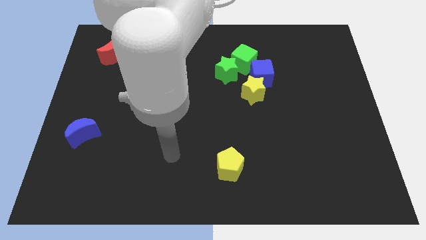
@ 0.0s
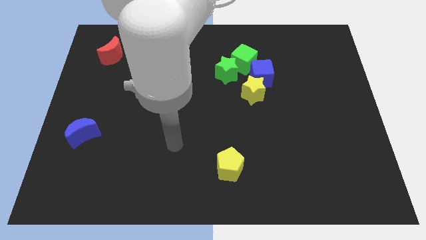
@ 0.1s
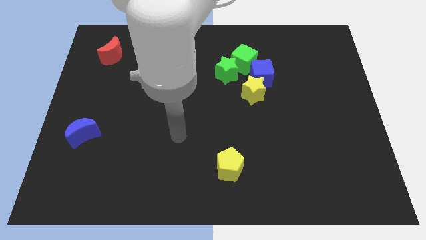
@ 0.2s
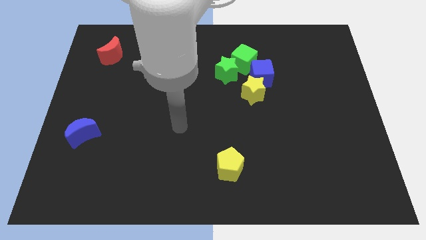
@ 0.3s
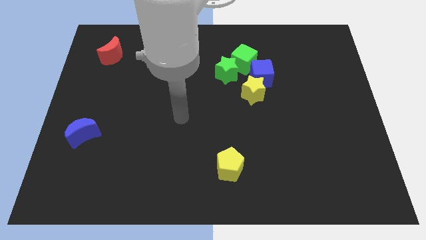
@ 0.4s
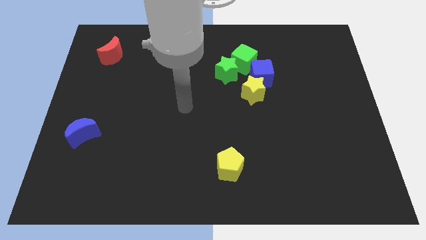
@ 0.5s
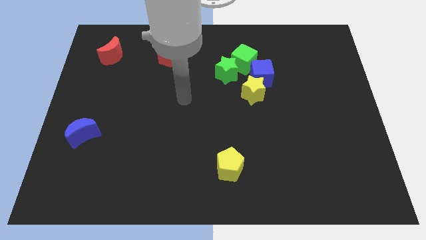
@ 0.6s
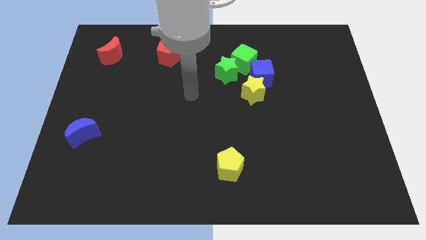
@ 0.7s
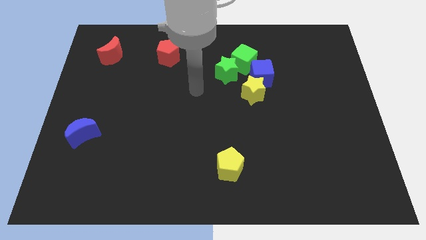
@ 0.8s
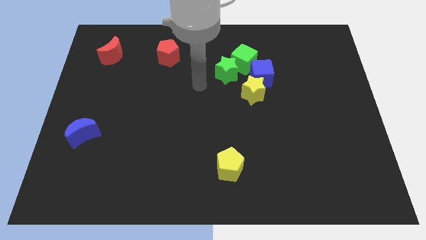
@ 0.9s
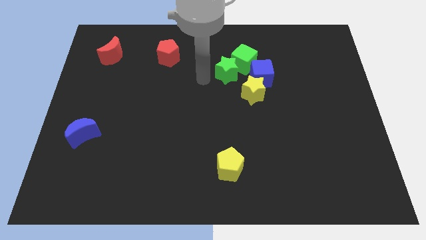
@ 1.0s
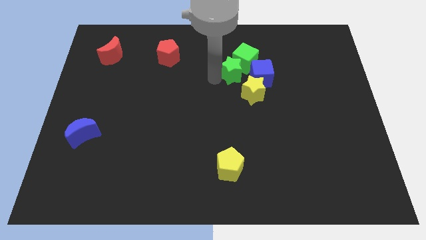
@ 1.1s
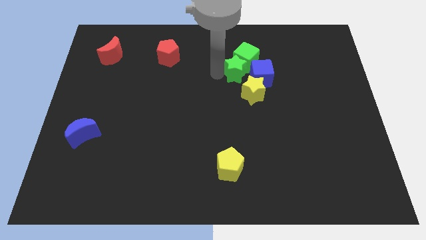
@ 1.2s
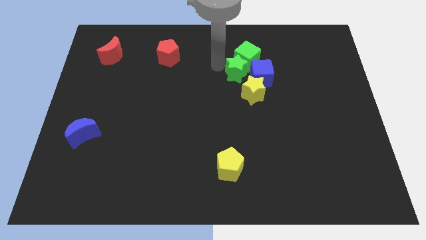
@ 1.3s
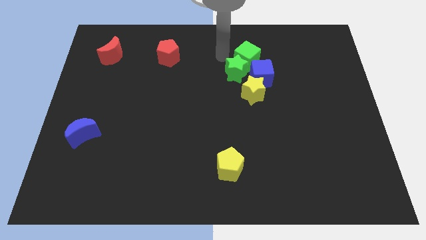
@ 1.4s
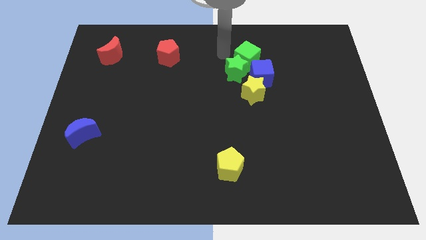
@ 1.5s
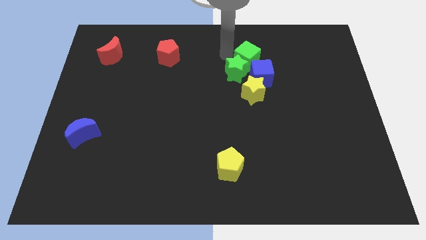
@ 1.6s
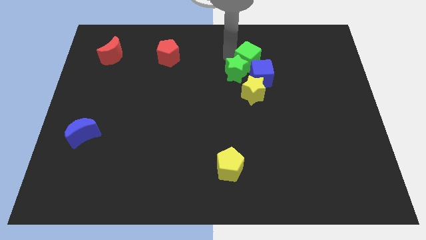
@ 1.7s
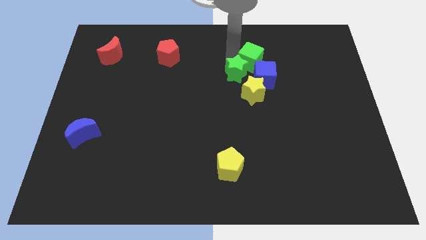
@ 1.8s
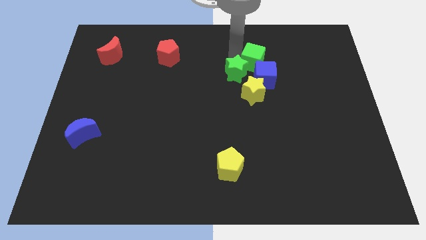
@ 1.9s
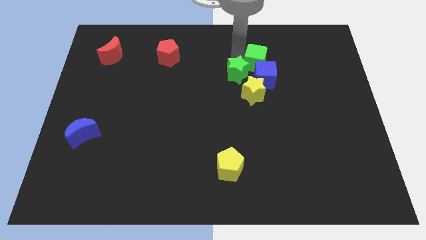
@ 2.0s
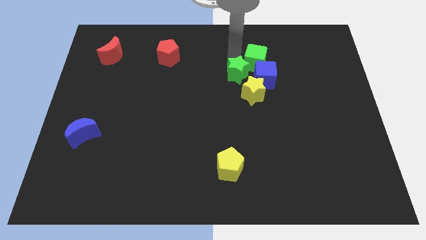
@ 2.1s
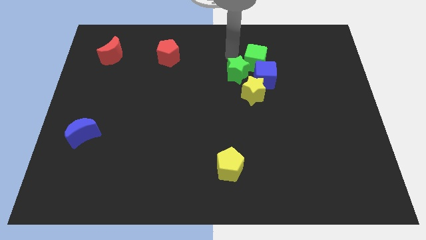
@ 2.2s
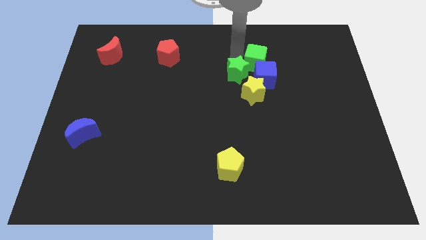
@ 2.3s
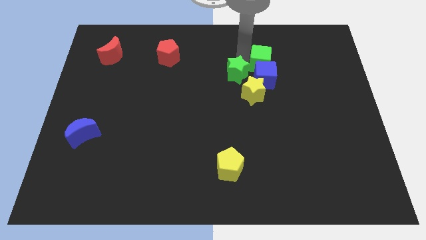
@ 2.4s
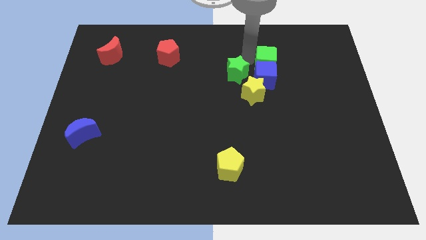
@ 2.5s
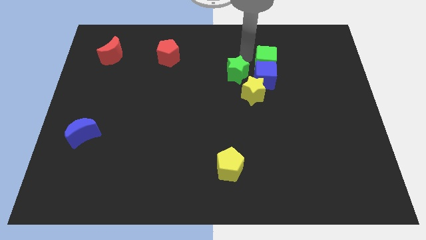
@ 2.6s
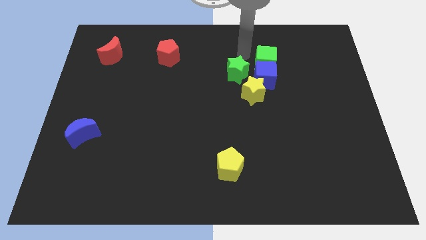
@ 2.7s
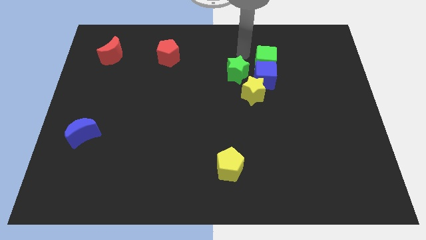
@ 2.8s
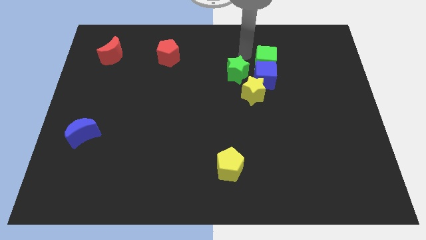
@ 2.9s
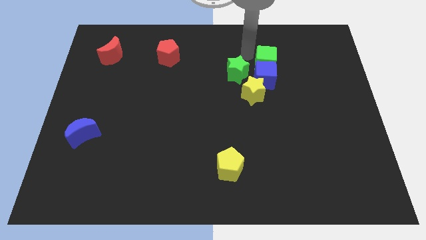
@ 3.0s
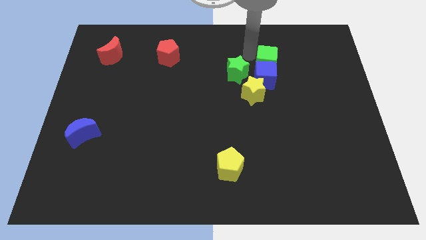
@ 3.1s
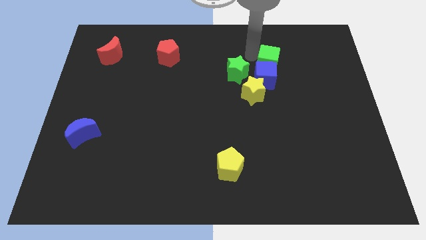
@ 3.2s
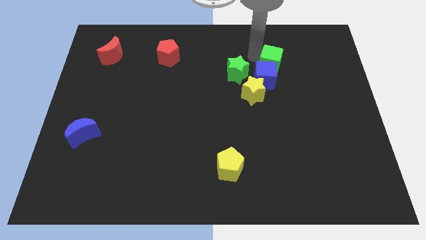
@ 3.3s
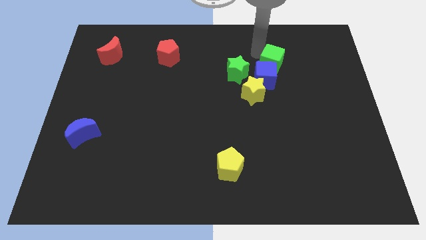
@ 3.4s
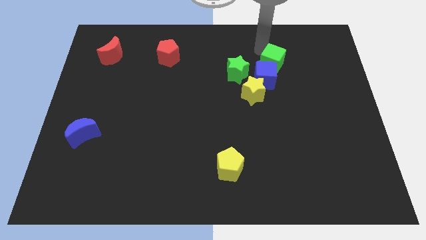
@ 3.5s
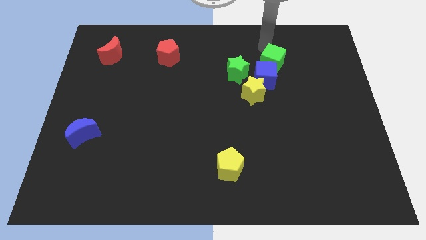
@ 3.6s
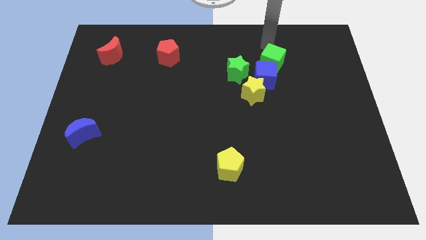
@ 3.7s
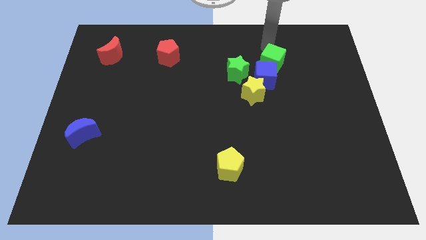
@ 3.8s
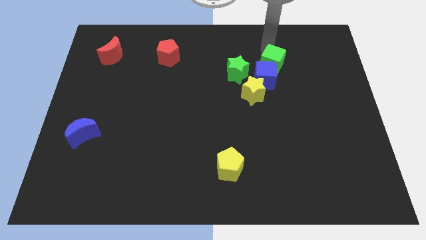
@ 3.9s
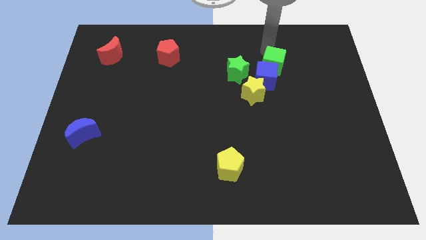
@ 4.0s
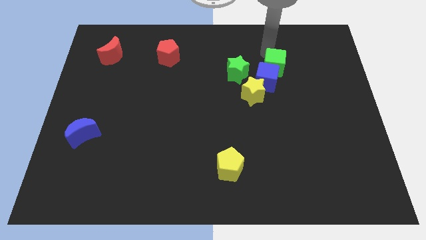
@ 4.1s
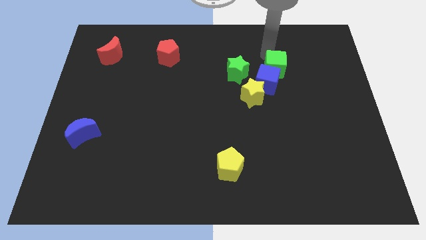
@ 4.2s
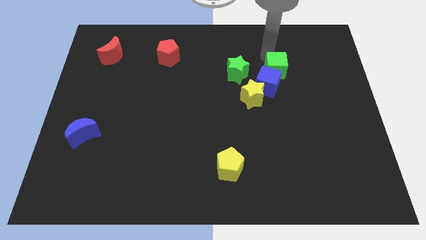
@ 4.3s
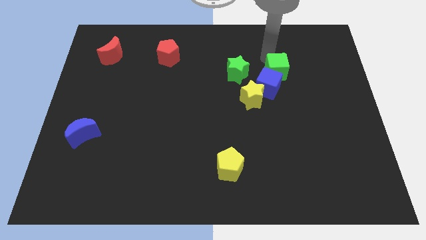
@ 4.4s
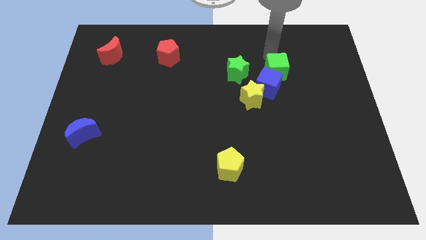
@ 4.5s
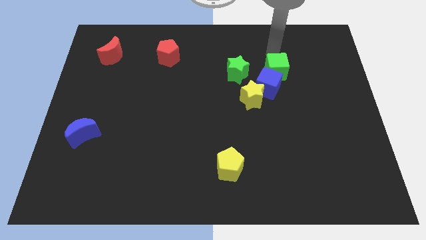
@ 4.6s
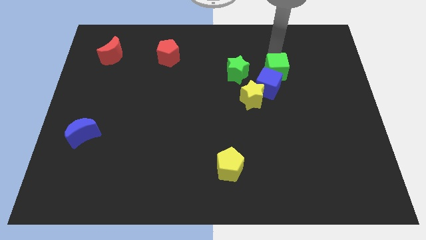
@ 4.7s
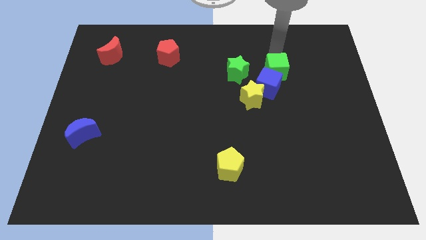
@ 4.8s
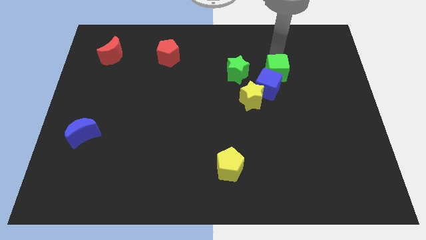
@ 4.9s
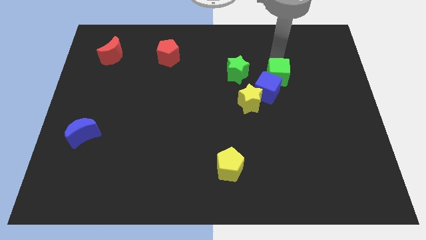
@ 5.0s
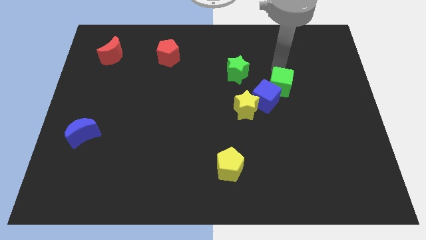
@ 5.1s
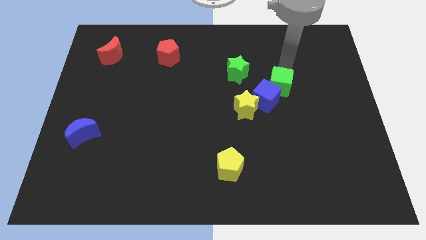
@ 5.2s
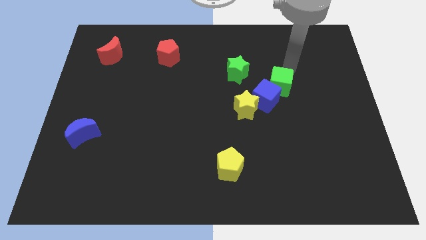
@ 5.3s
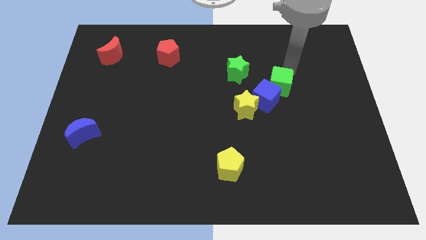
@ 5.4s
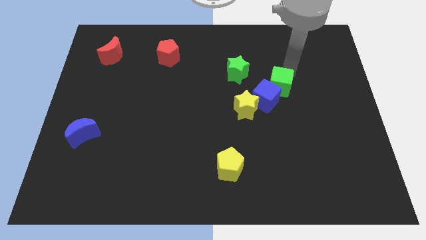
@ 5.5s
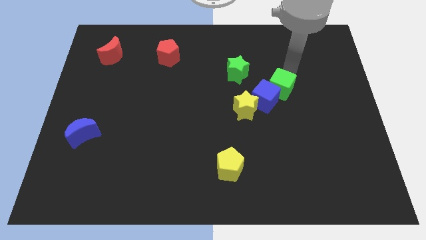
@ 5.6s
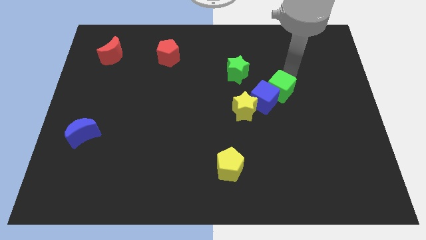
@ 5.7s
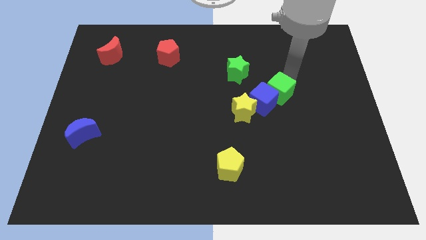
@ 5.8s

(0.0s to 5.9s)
move the green cube down slightly

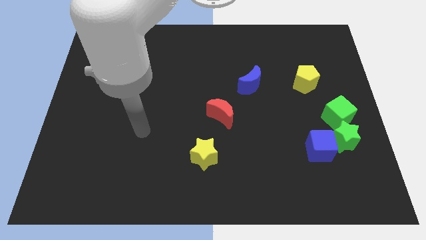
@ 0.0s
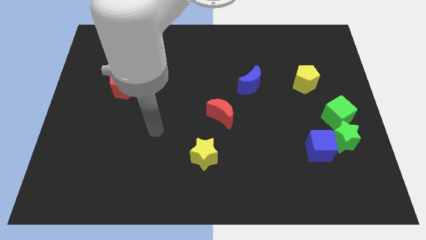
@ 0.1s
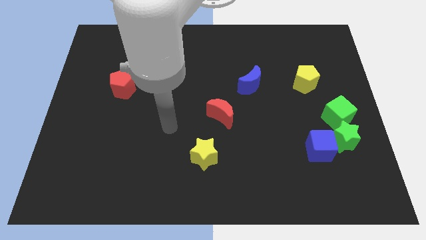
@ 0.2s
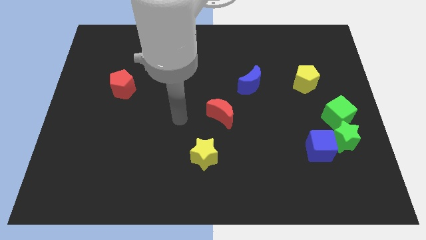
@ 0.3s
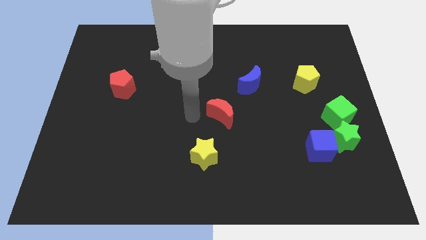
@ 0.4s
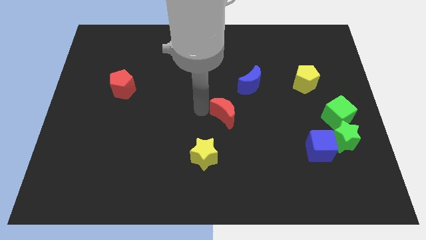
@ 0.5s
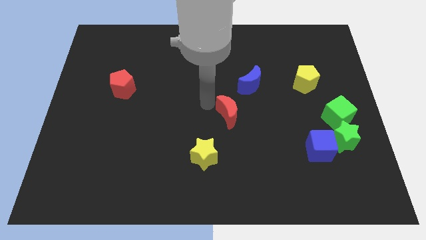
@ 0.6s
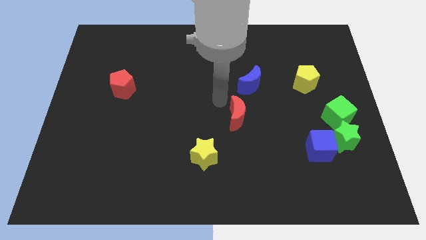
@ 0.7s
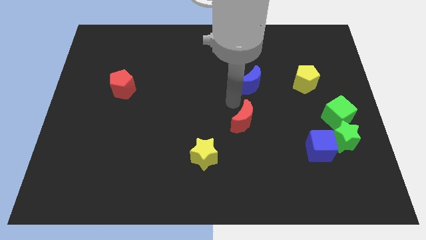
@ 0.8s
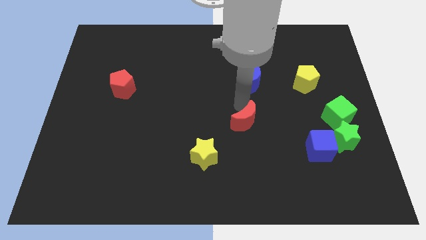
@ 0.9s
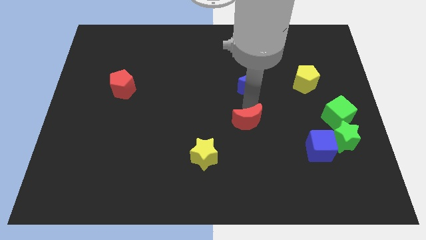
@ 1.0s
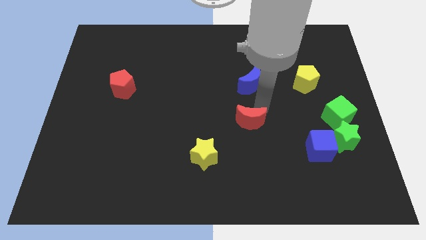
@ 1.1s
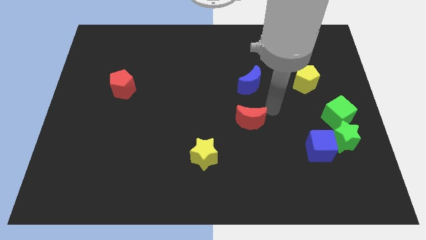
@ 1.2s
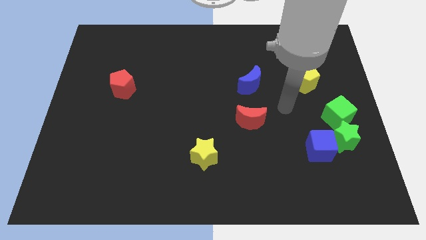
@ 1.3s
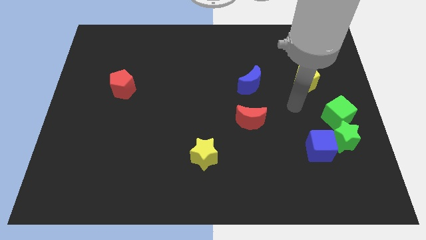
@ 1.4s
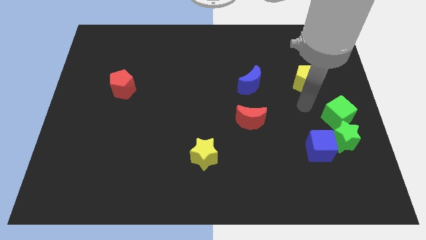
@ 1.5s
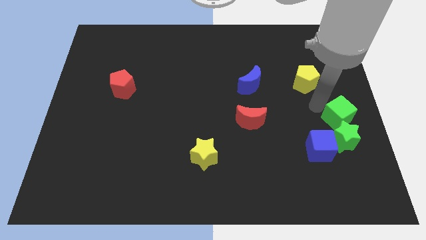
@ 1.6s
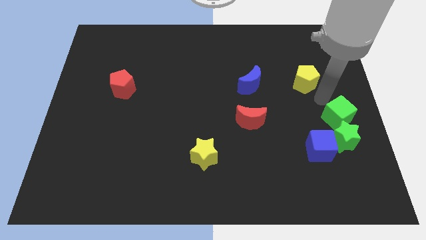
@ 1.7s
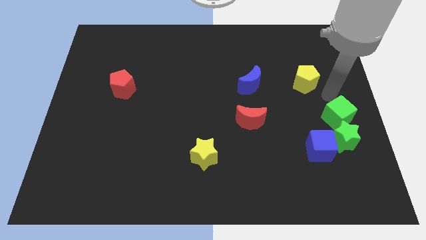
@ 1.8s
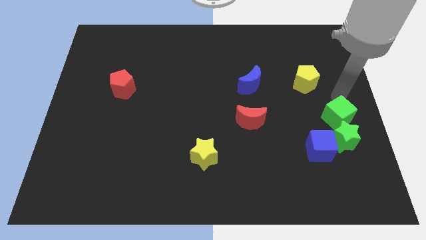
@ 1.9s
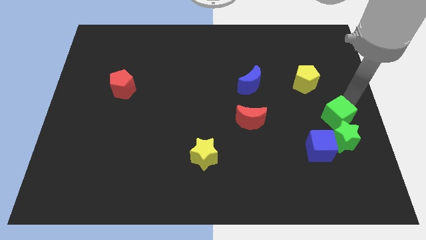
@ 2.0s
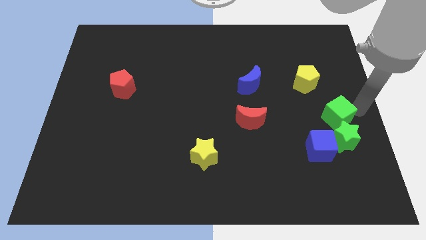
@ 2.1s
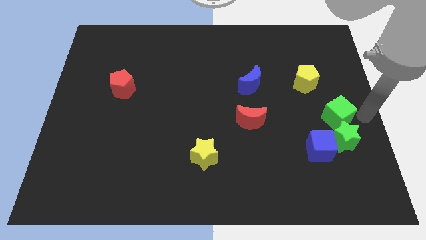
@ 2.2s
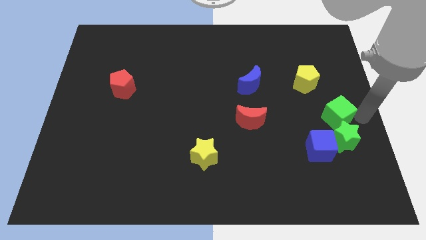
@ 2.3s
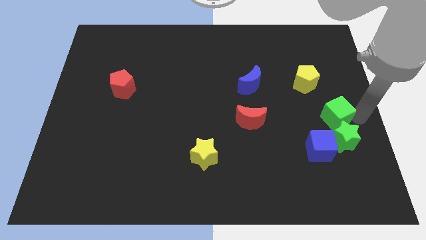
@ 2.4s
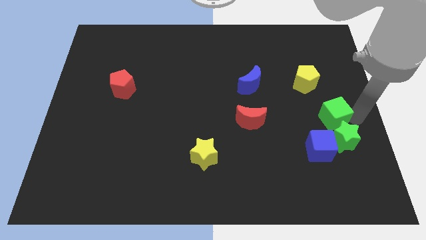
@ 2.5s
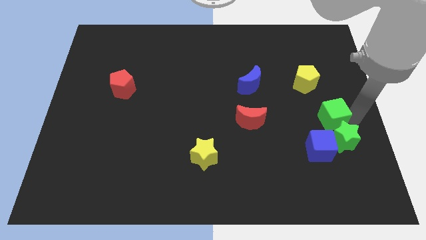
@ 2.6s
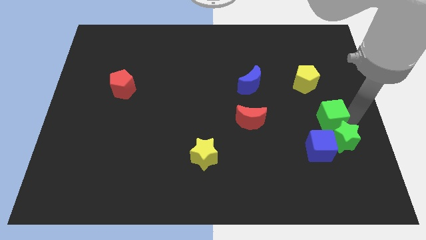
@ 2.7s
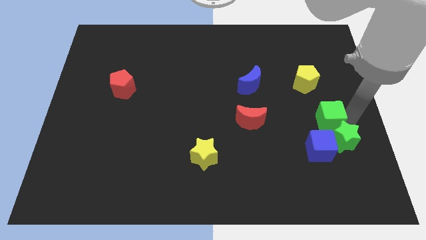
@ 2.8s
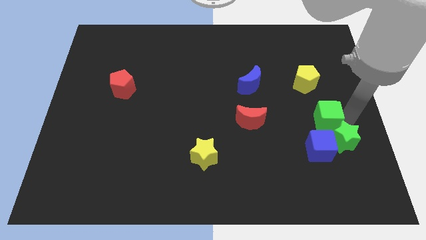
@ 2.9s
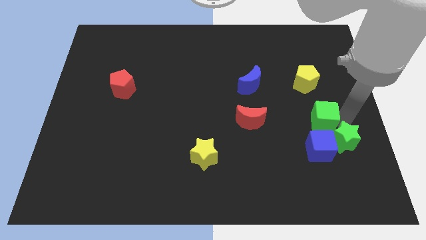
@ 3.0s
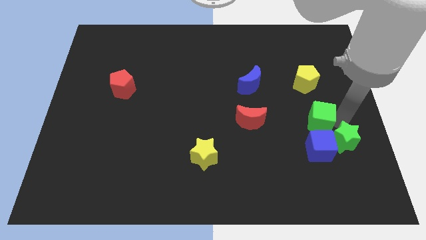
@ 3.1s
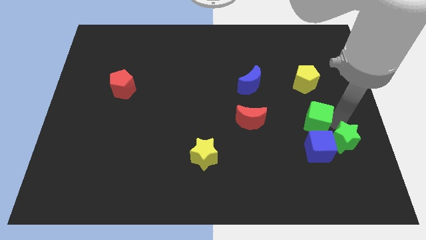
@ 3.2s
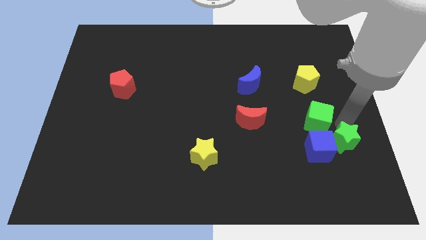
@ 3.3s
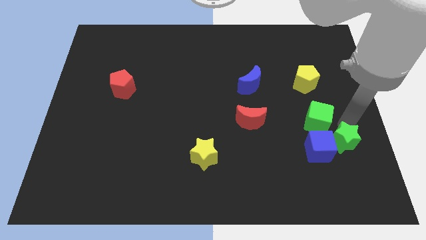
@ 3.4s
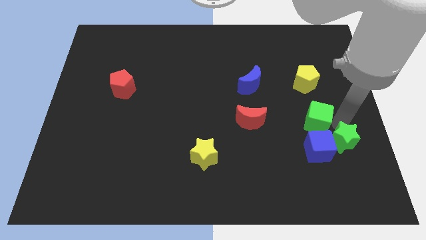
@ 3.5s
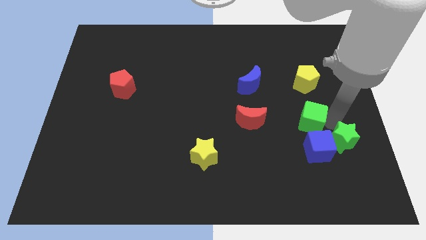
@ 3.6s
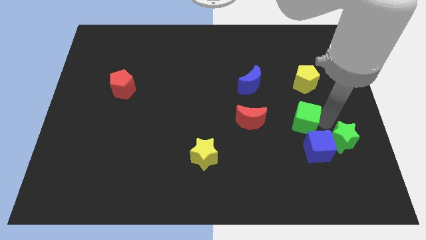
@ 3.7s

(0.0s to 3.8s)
slide the green cube a little bit to the left
